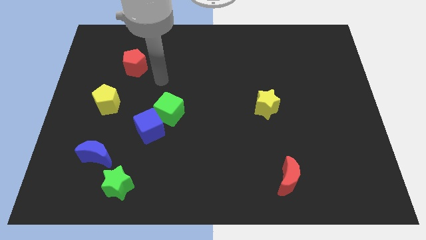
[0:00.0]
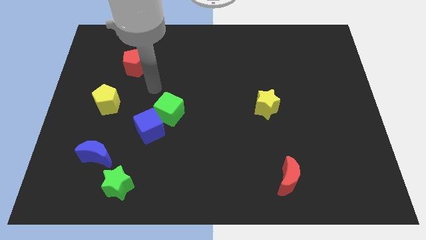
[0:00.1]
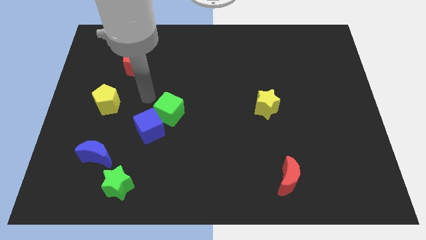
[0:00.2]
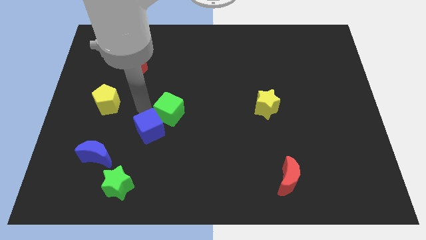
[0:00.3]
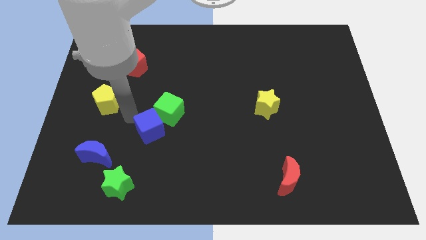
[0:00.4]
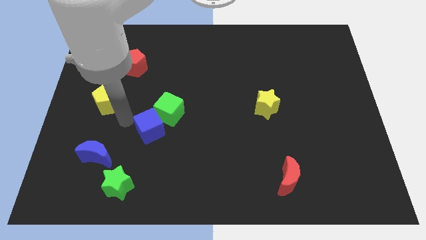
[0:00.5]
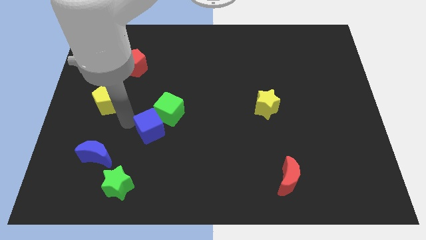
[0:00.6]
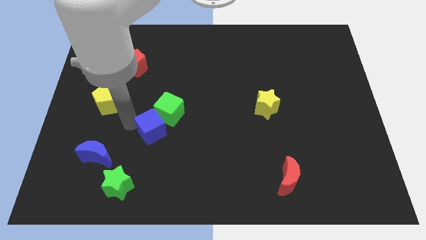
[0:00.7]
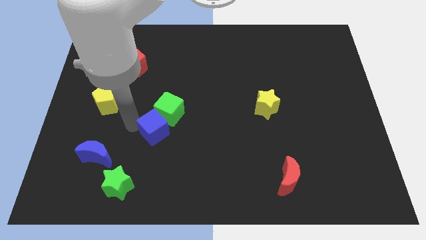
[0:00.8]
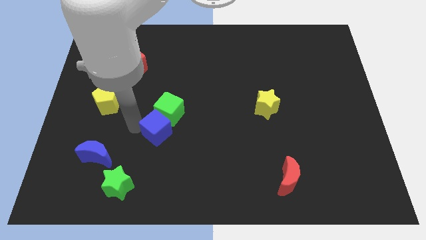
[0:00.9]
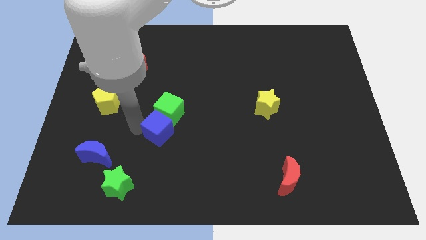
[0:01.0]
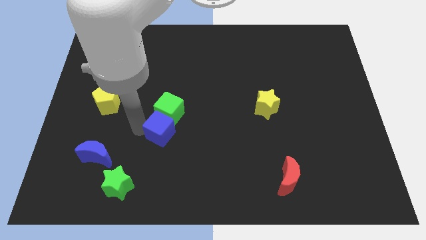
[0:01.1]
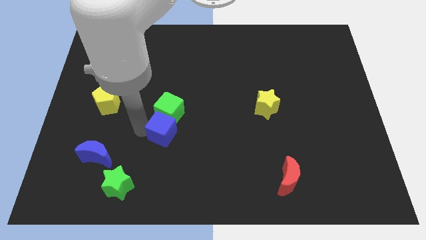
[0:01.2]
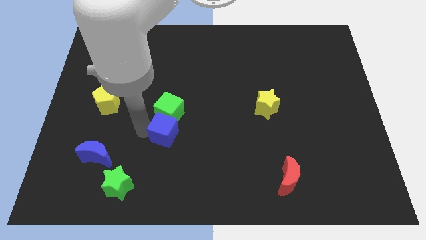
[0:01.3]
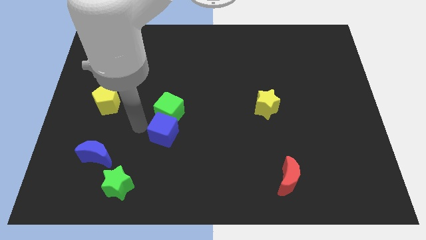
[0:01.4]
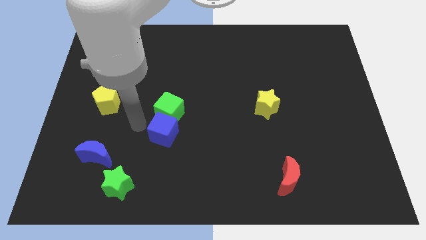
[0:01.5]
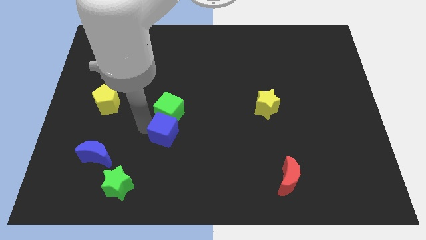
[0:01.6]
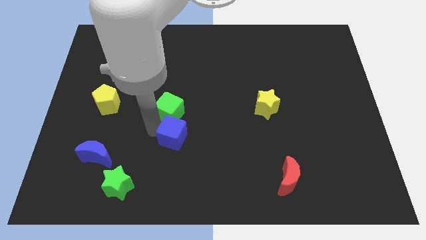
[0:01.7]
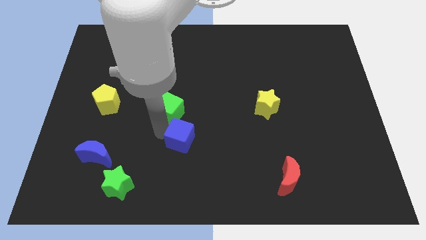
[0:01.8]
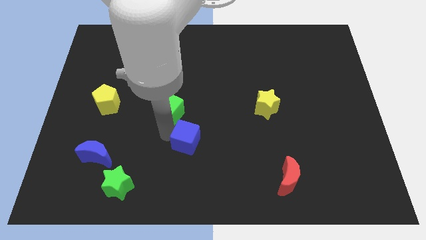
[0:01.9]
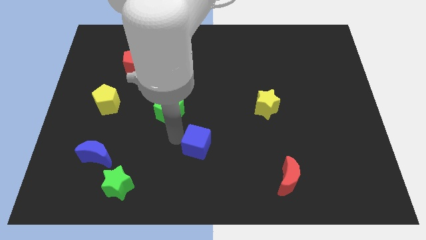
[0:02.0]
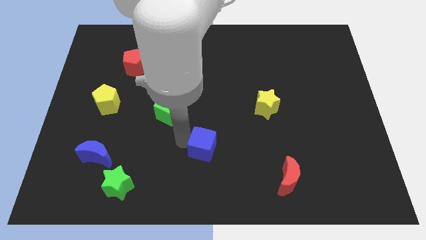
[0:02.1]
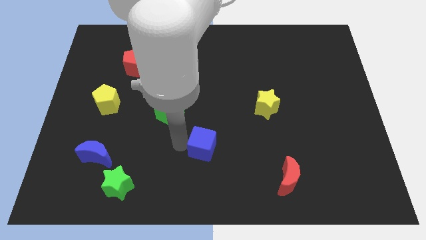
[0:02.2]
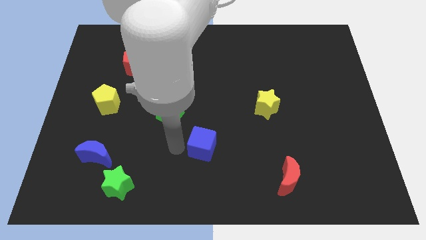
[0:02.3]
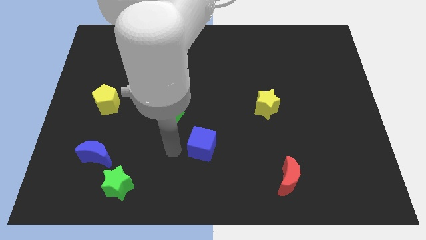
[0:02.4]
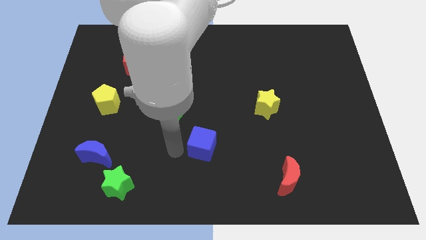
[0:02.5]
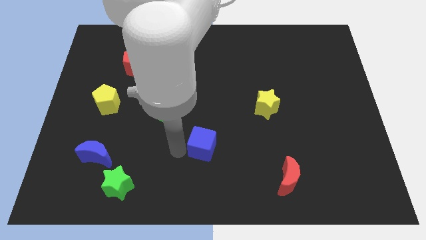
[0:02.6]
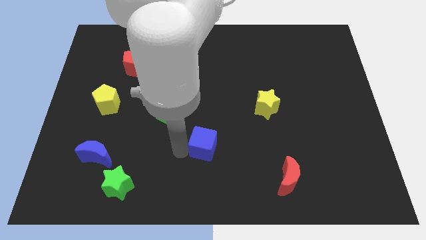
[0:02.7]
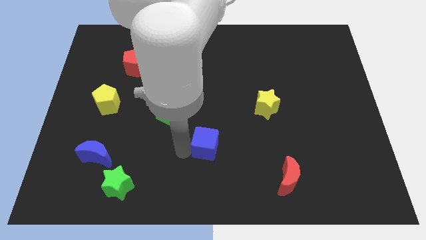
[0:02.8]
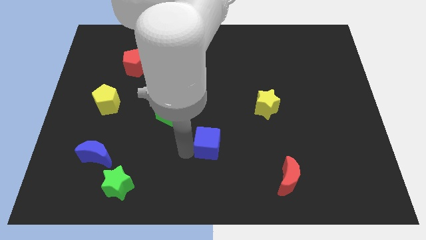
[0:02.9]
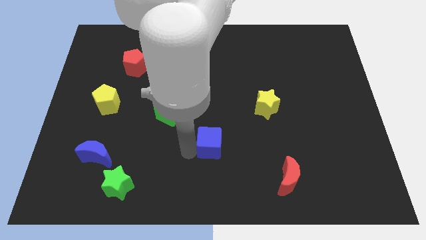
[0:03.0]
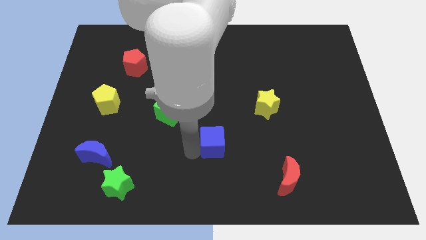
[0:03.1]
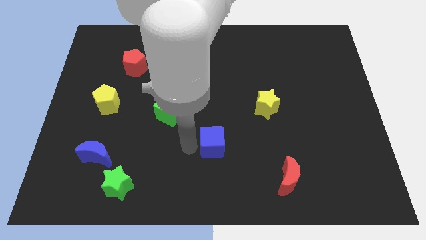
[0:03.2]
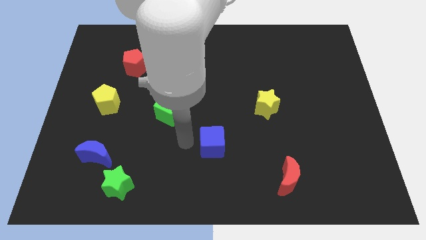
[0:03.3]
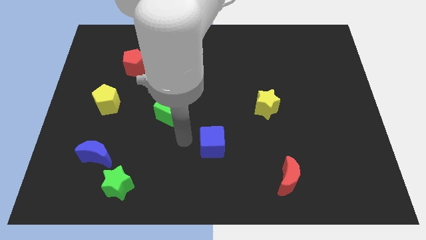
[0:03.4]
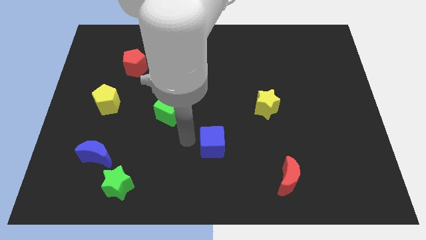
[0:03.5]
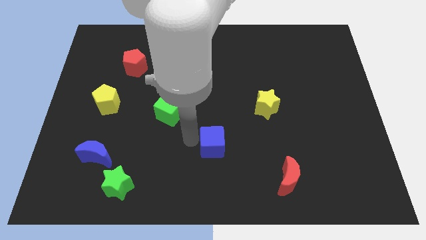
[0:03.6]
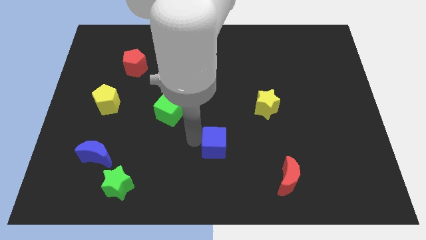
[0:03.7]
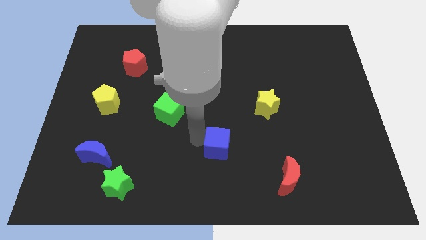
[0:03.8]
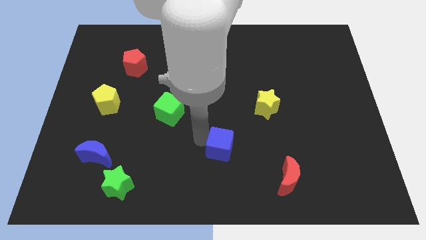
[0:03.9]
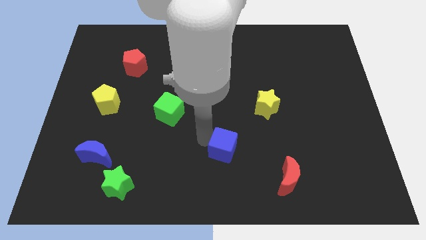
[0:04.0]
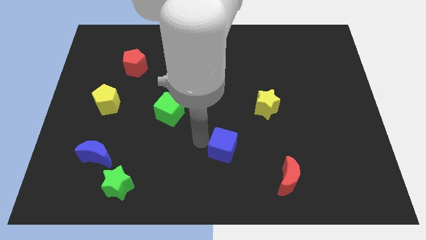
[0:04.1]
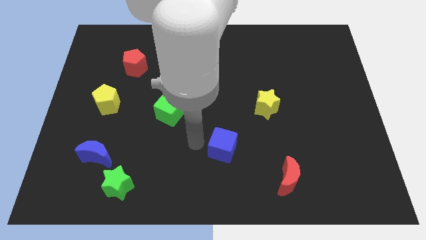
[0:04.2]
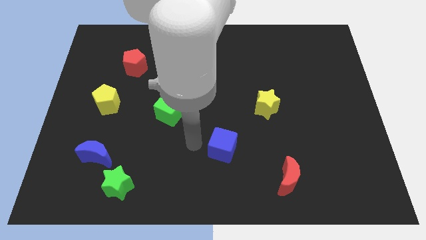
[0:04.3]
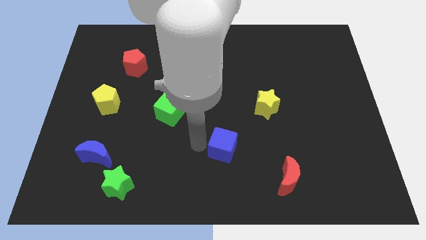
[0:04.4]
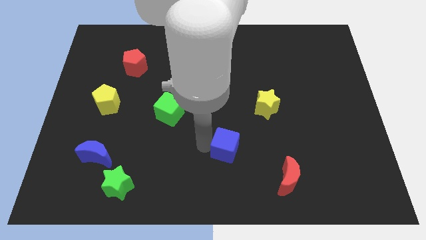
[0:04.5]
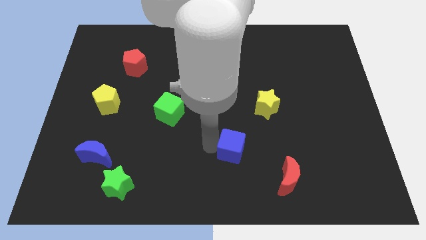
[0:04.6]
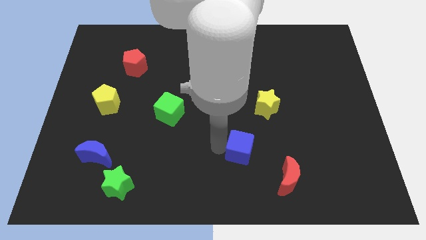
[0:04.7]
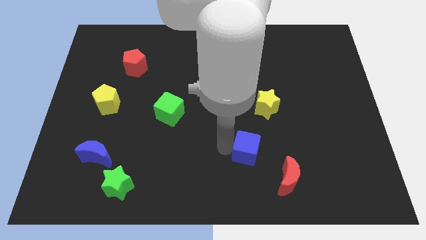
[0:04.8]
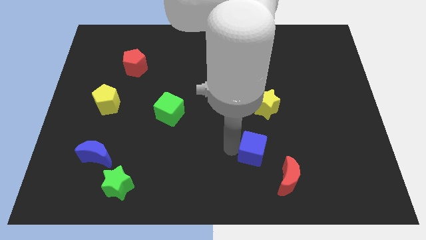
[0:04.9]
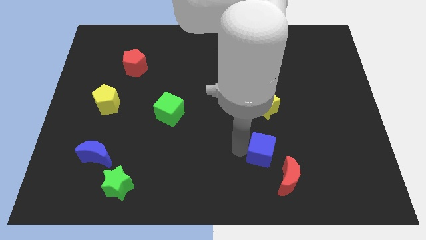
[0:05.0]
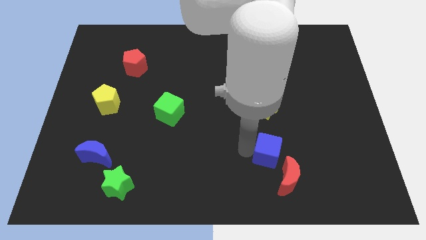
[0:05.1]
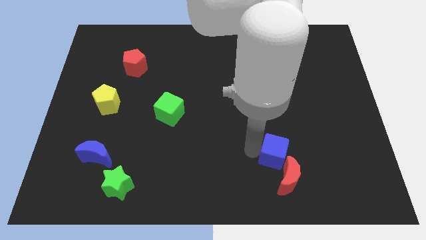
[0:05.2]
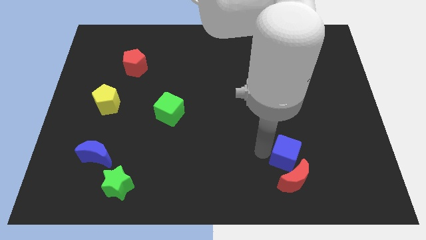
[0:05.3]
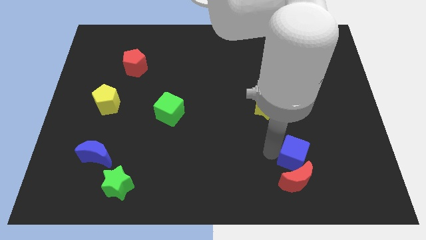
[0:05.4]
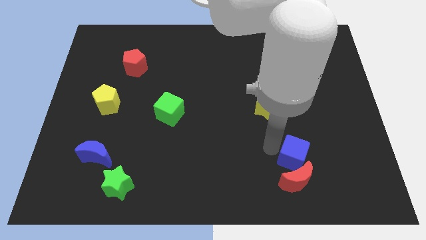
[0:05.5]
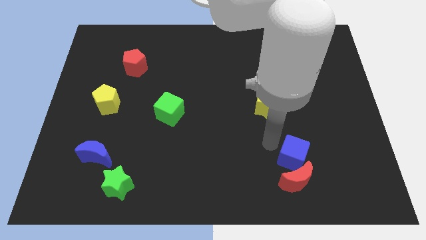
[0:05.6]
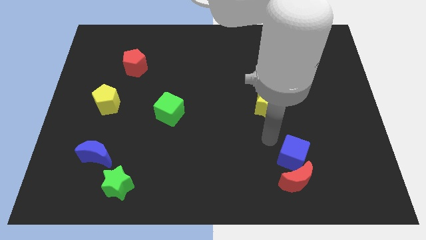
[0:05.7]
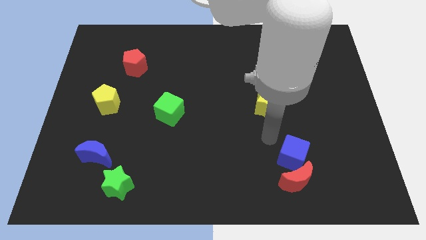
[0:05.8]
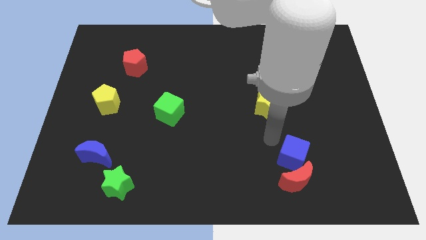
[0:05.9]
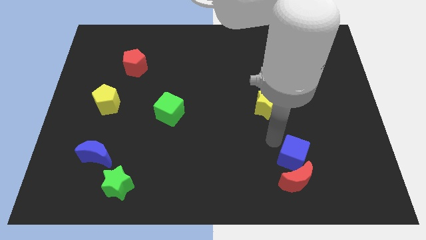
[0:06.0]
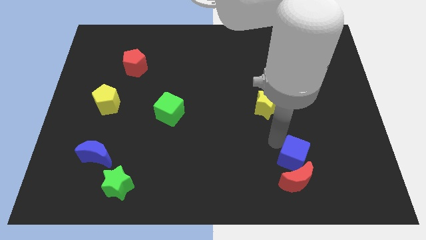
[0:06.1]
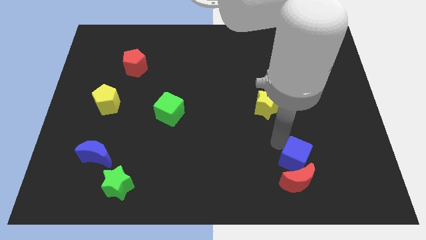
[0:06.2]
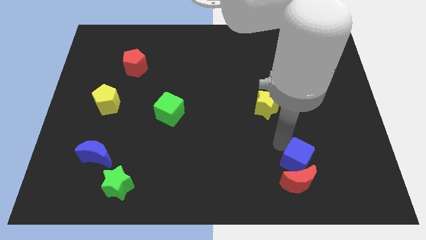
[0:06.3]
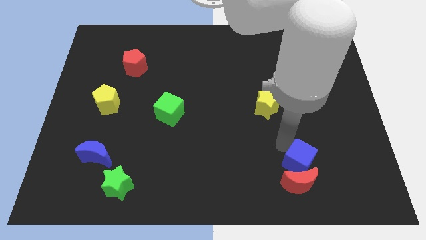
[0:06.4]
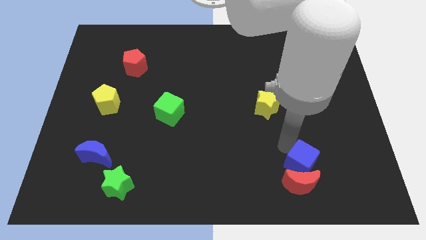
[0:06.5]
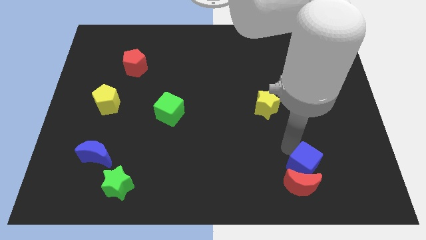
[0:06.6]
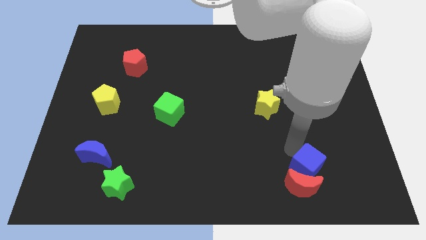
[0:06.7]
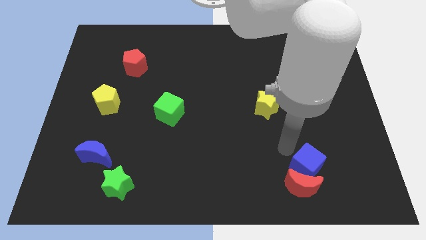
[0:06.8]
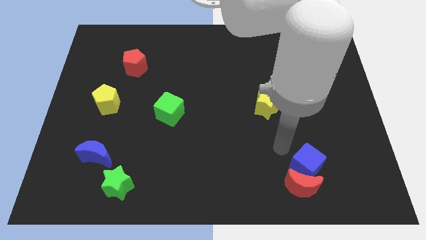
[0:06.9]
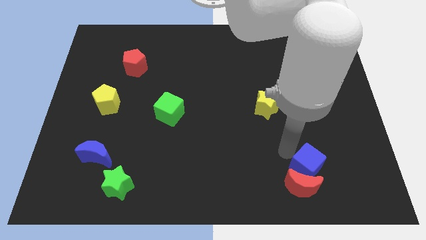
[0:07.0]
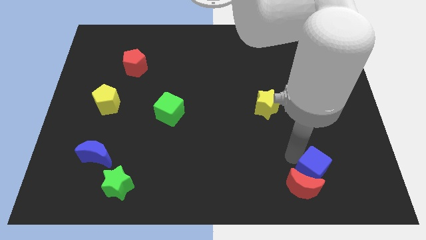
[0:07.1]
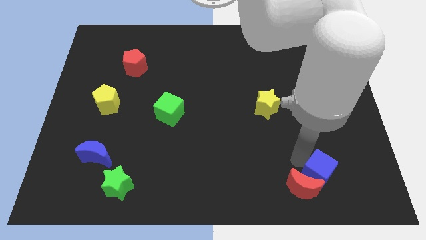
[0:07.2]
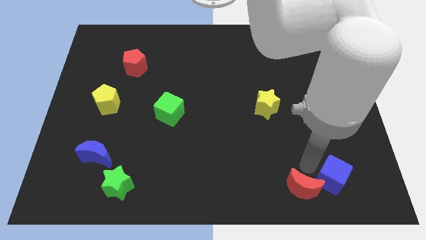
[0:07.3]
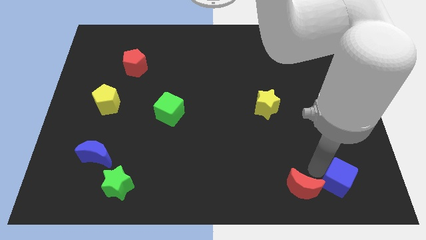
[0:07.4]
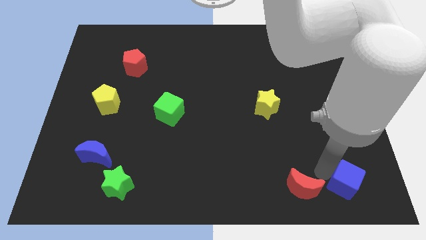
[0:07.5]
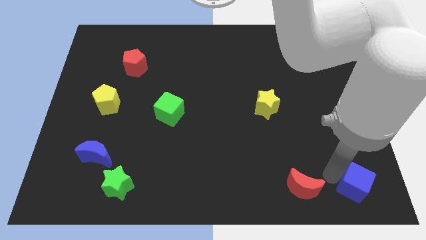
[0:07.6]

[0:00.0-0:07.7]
slide the blue cube to the bottom right of the board
